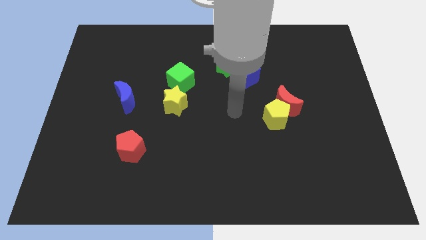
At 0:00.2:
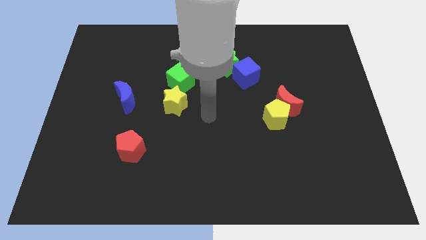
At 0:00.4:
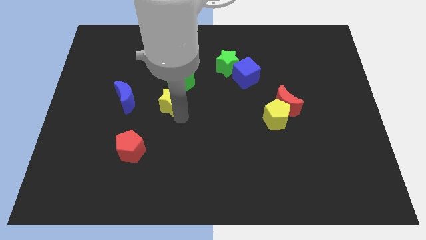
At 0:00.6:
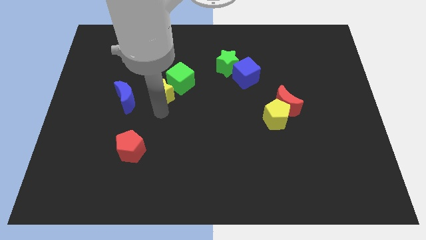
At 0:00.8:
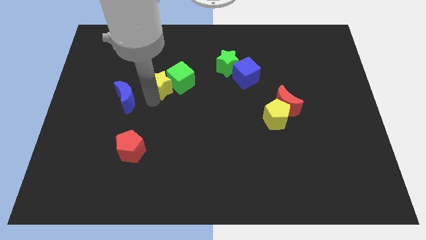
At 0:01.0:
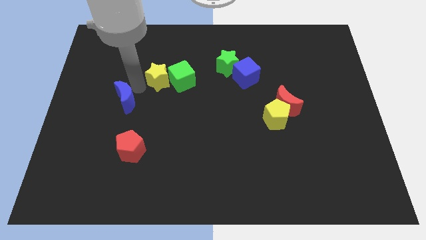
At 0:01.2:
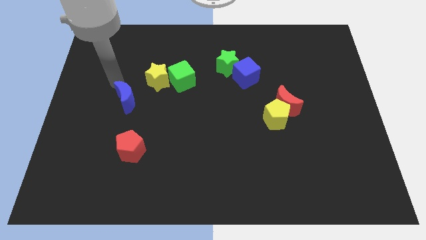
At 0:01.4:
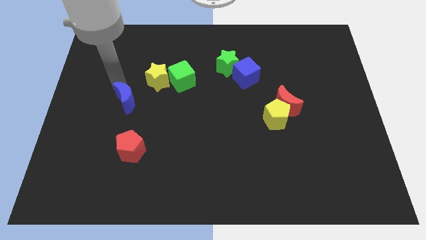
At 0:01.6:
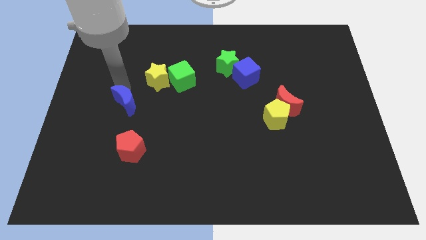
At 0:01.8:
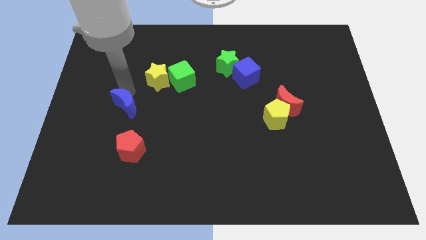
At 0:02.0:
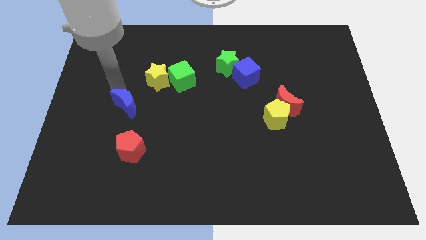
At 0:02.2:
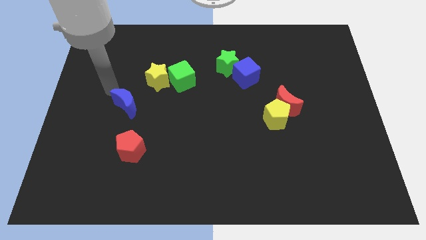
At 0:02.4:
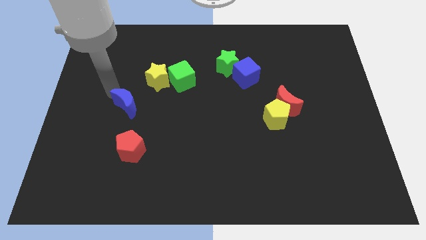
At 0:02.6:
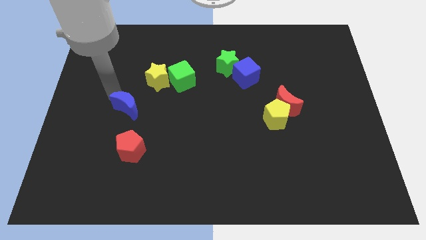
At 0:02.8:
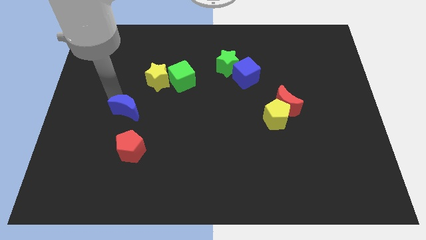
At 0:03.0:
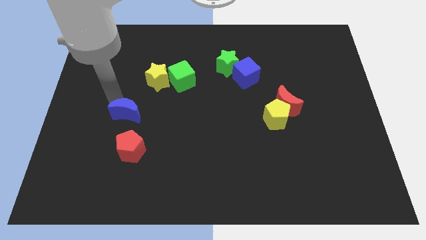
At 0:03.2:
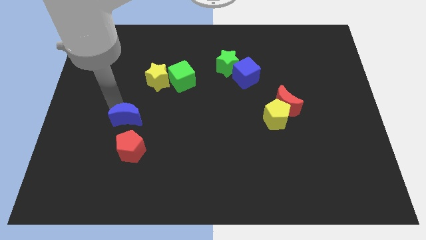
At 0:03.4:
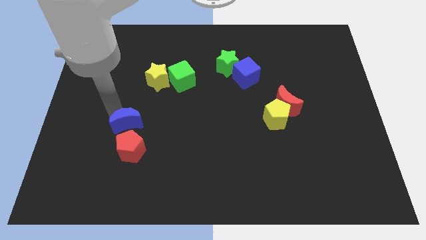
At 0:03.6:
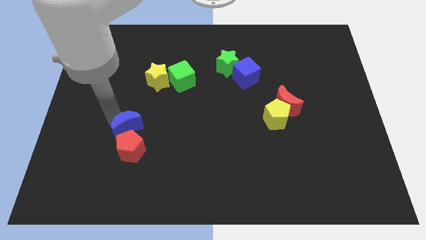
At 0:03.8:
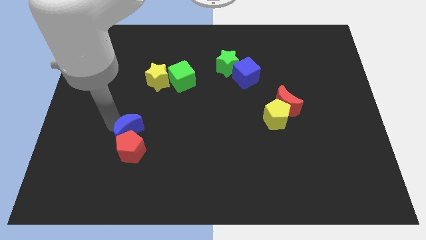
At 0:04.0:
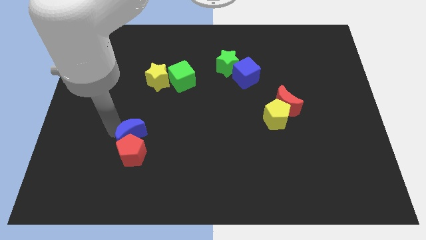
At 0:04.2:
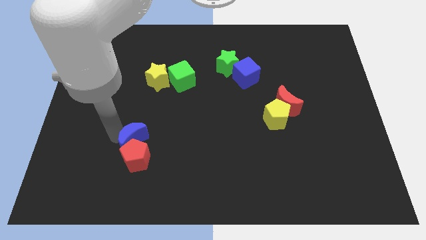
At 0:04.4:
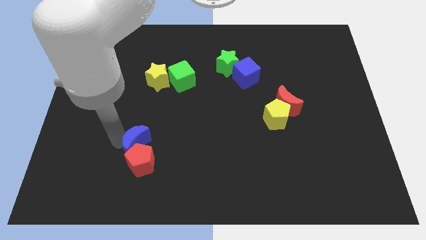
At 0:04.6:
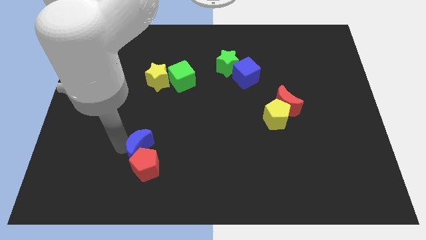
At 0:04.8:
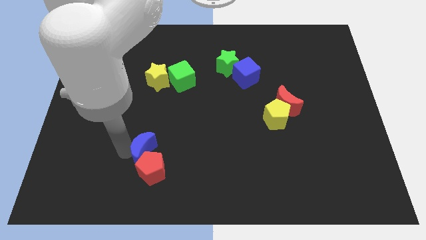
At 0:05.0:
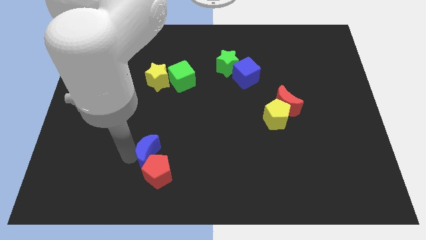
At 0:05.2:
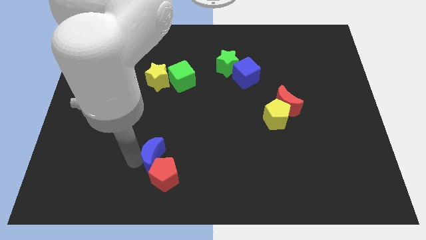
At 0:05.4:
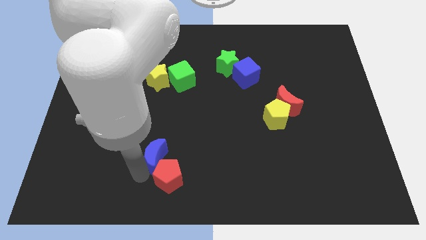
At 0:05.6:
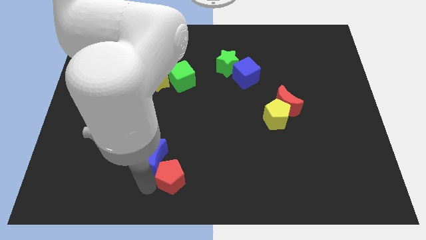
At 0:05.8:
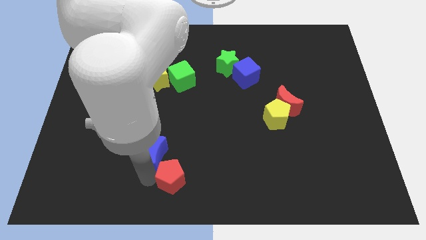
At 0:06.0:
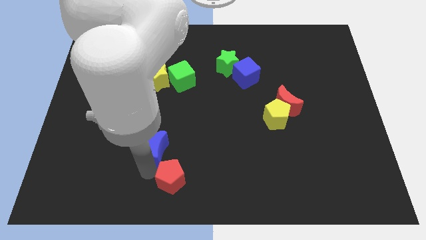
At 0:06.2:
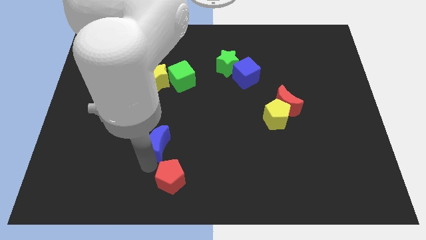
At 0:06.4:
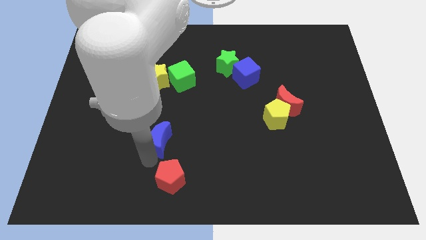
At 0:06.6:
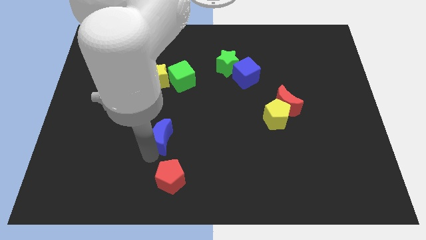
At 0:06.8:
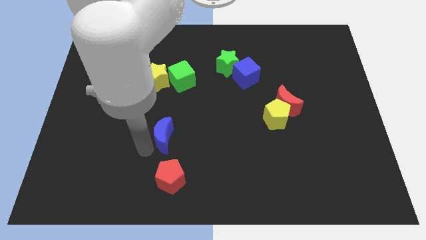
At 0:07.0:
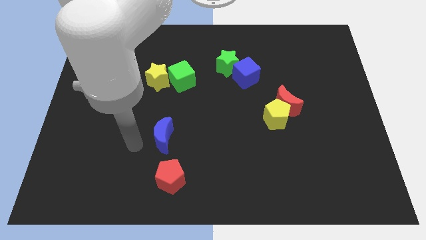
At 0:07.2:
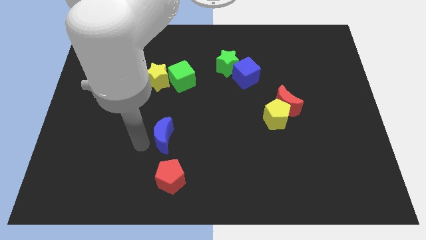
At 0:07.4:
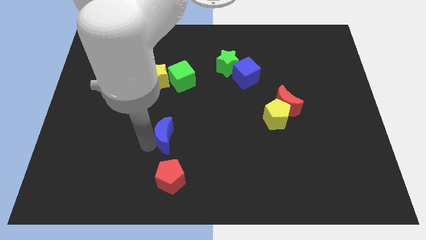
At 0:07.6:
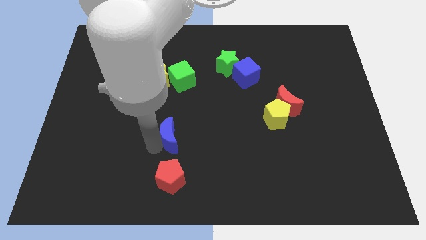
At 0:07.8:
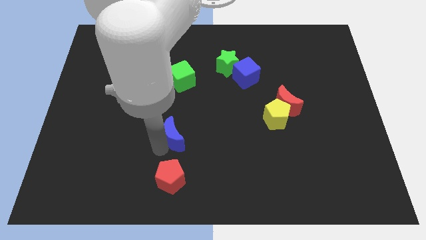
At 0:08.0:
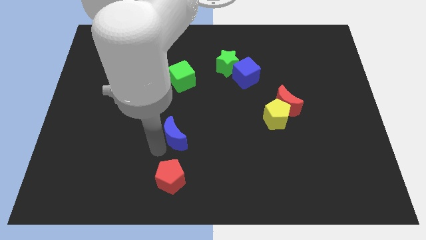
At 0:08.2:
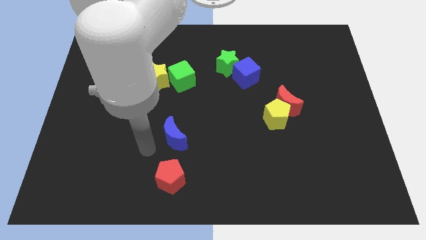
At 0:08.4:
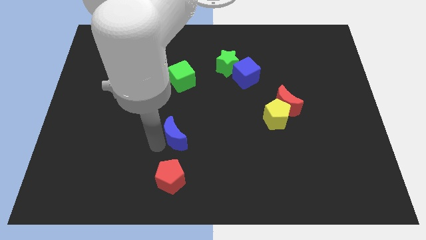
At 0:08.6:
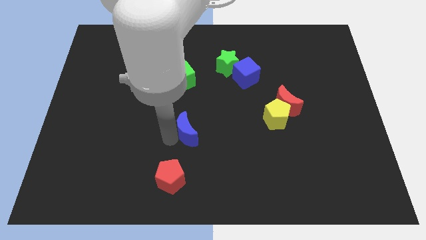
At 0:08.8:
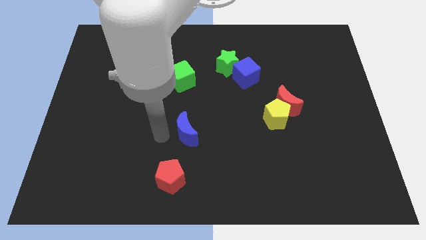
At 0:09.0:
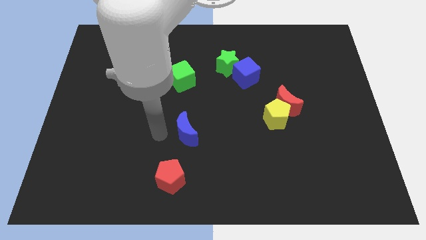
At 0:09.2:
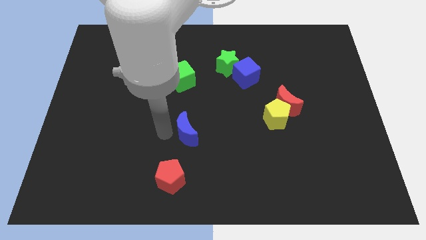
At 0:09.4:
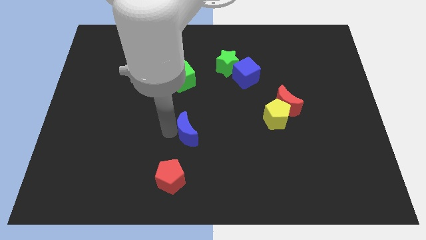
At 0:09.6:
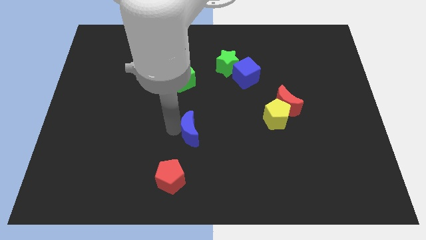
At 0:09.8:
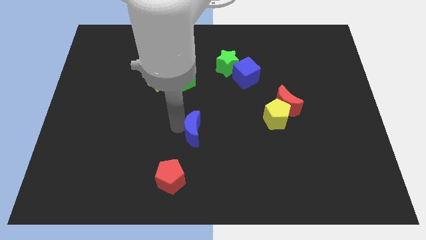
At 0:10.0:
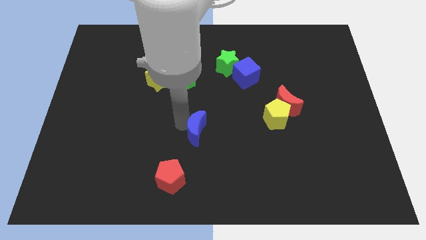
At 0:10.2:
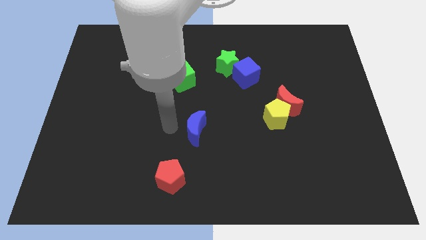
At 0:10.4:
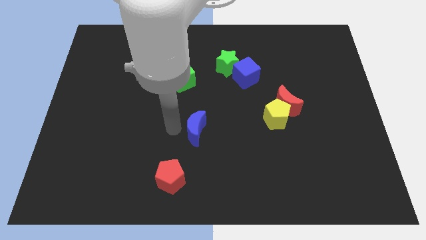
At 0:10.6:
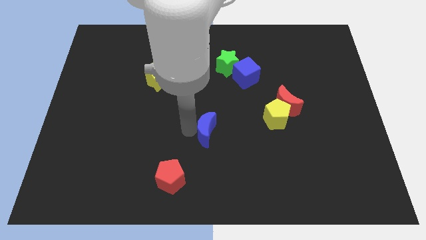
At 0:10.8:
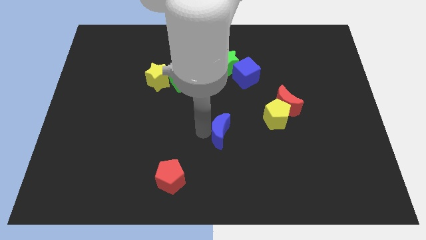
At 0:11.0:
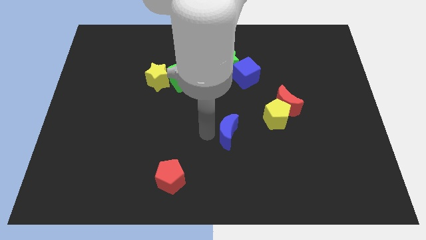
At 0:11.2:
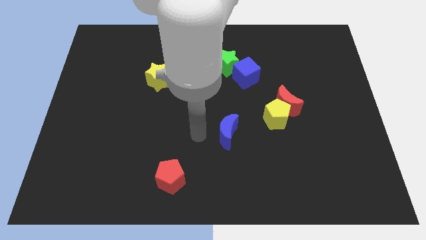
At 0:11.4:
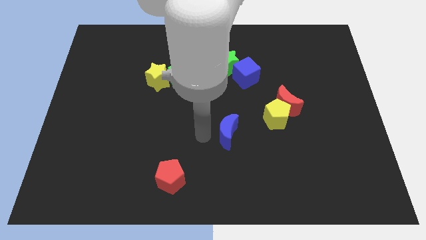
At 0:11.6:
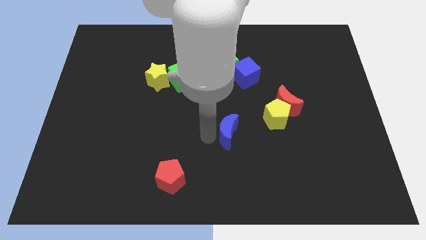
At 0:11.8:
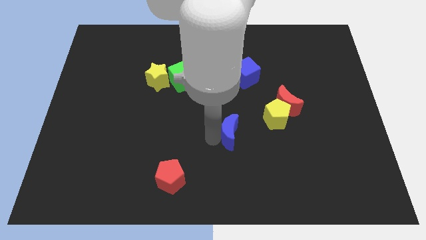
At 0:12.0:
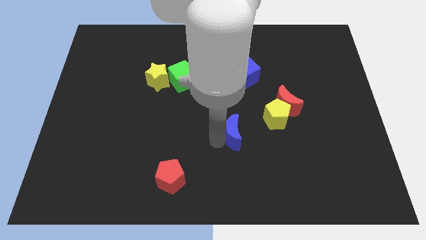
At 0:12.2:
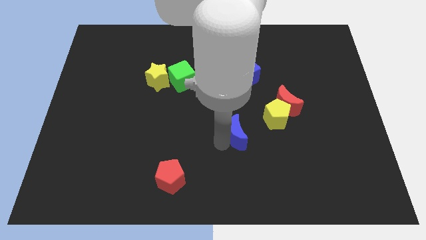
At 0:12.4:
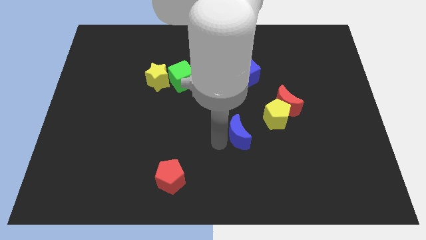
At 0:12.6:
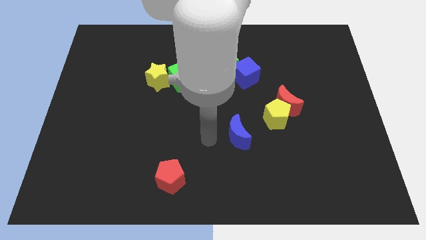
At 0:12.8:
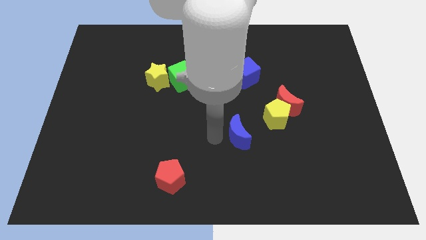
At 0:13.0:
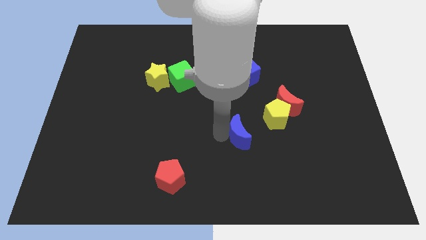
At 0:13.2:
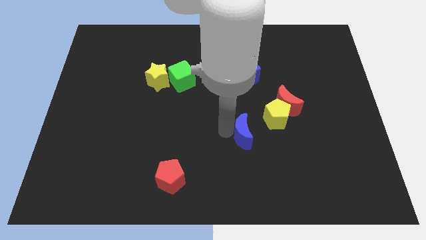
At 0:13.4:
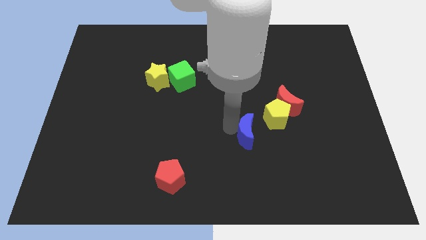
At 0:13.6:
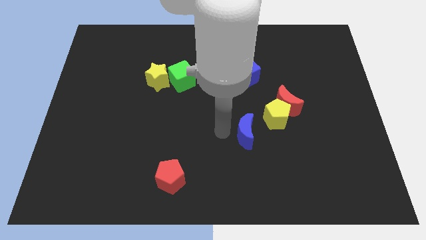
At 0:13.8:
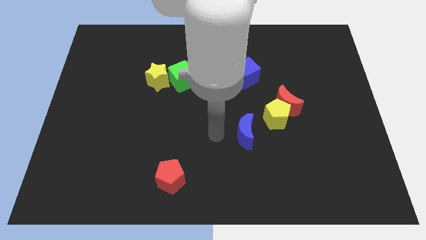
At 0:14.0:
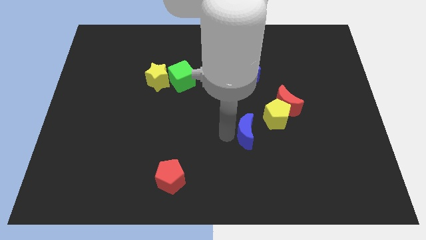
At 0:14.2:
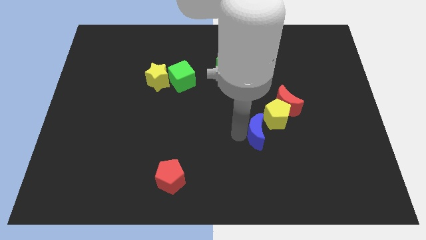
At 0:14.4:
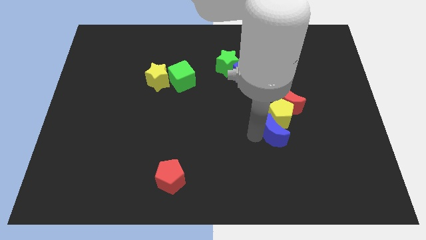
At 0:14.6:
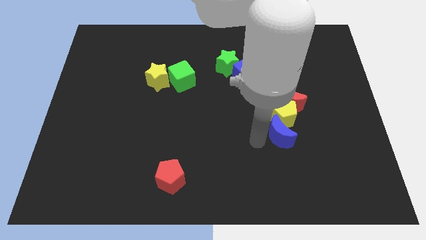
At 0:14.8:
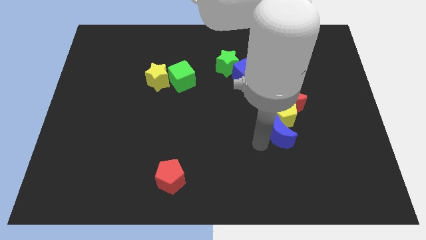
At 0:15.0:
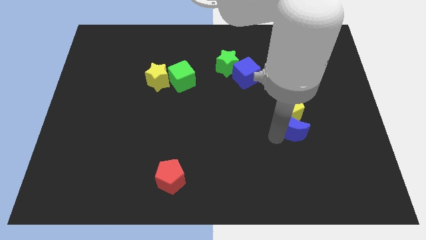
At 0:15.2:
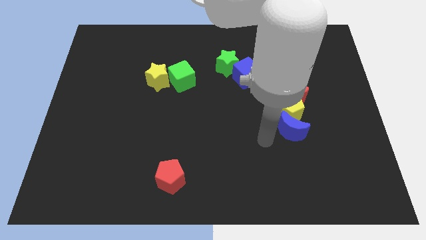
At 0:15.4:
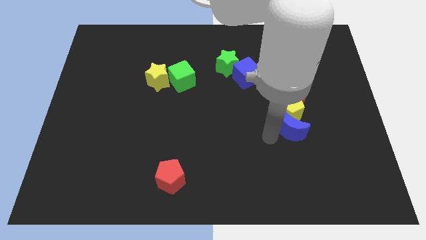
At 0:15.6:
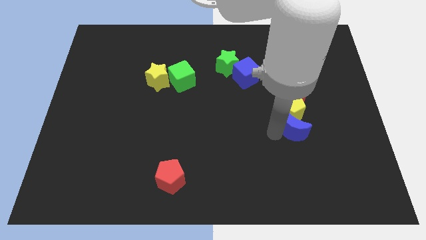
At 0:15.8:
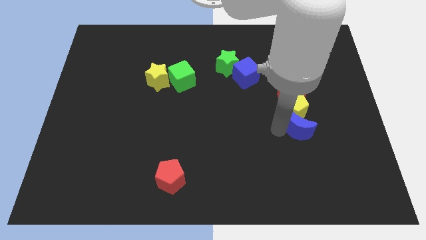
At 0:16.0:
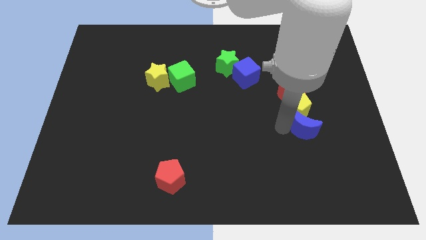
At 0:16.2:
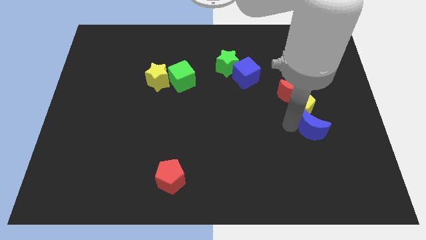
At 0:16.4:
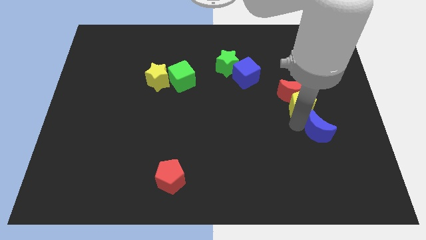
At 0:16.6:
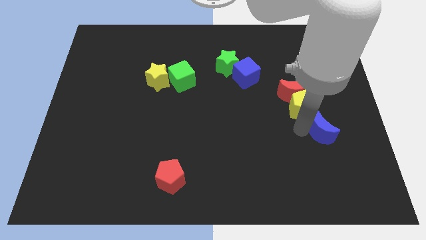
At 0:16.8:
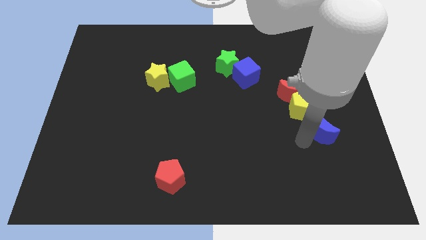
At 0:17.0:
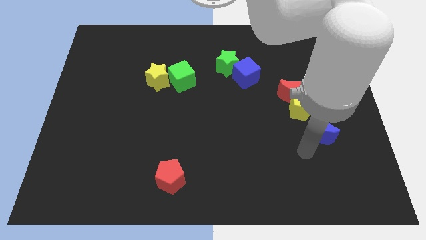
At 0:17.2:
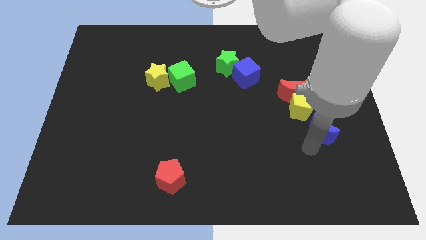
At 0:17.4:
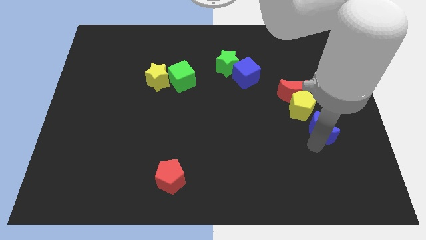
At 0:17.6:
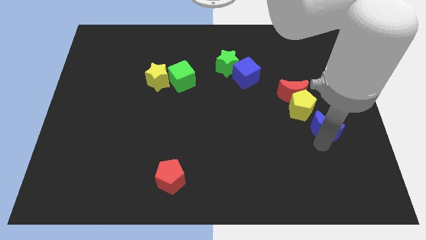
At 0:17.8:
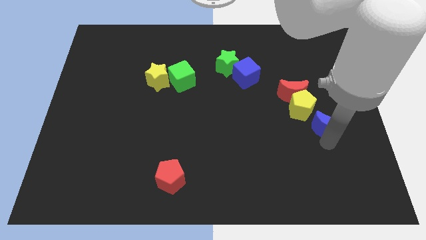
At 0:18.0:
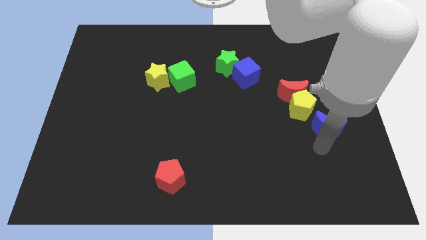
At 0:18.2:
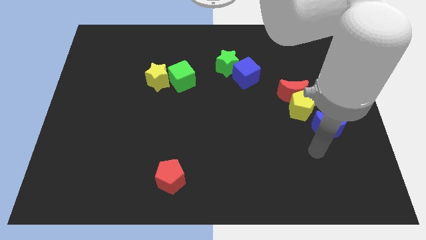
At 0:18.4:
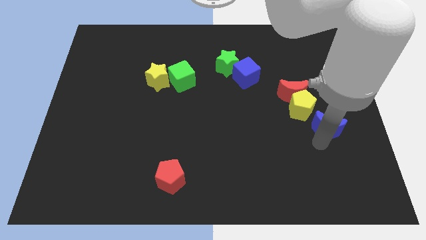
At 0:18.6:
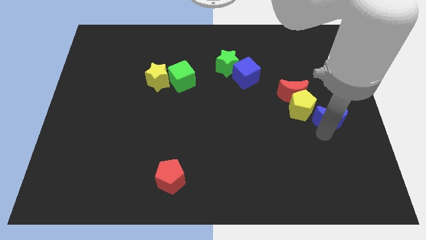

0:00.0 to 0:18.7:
slide the blue moon to the center right
